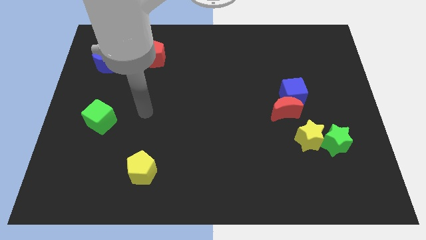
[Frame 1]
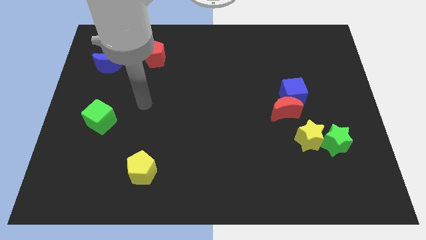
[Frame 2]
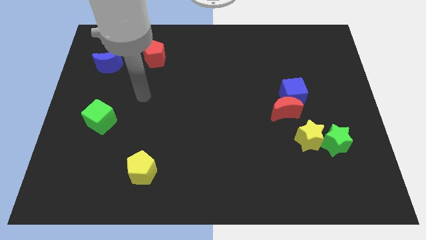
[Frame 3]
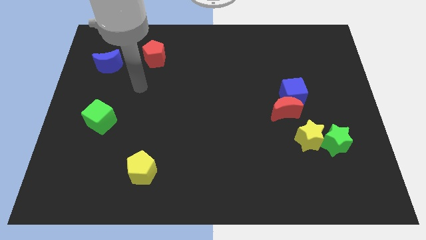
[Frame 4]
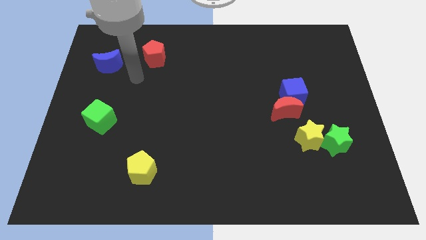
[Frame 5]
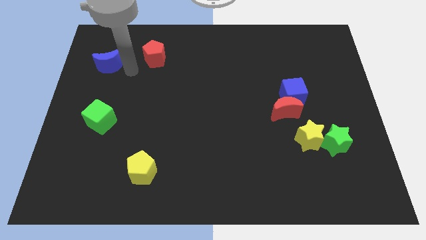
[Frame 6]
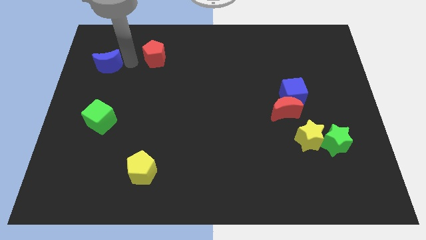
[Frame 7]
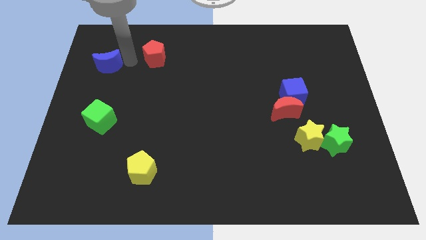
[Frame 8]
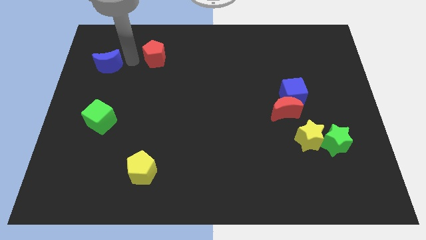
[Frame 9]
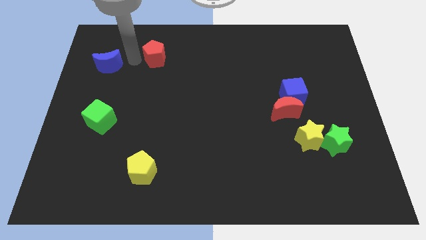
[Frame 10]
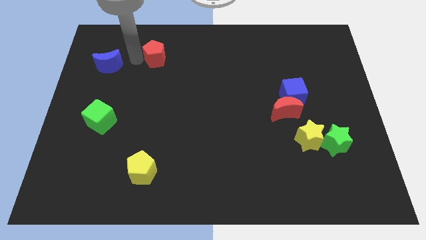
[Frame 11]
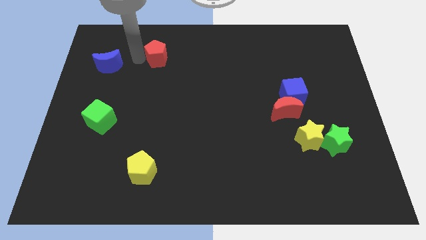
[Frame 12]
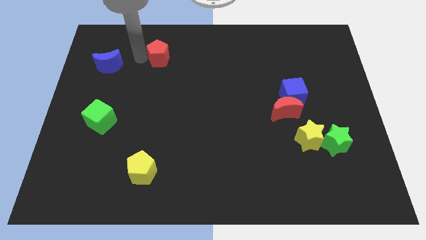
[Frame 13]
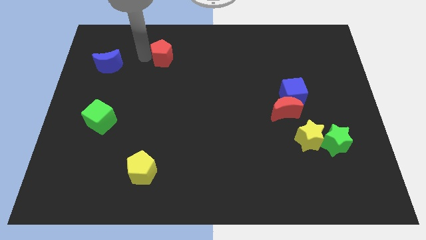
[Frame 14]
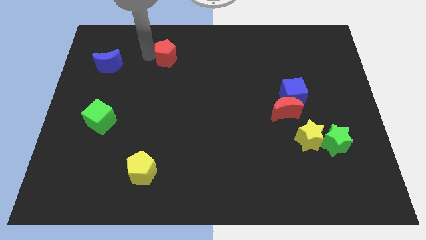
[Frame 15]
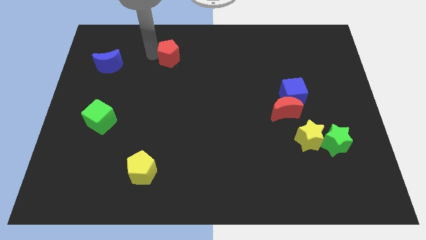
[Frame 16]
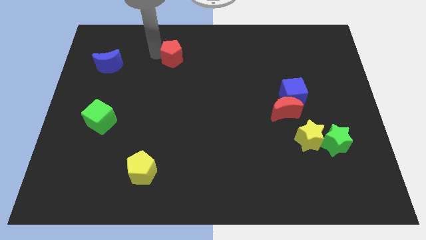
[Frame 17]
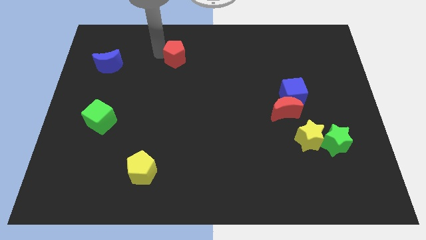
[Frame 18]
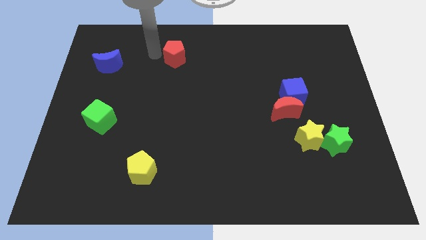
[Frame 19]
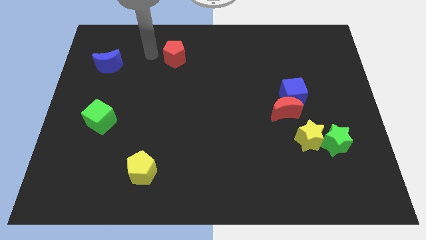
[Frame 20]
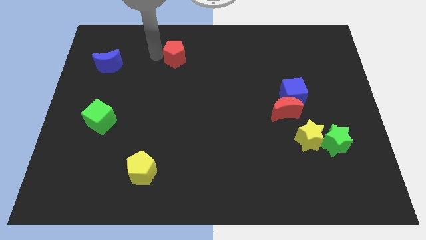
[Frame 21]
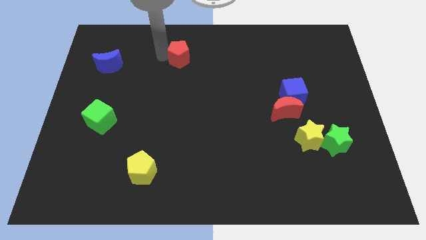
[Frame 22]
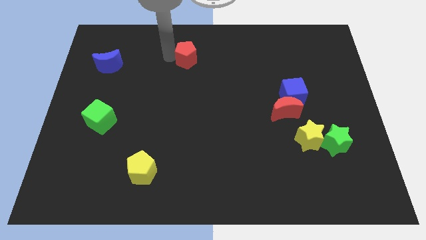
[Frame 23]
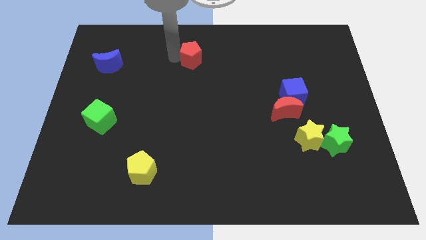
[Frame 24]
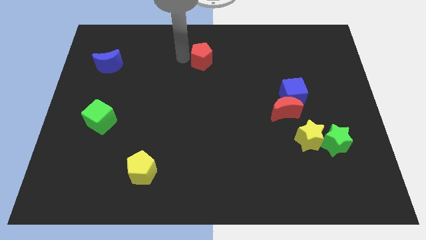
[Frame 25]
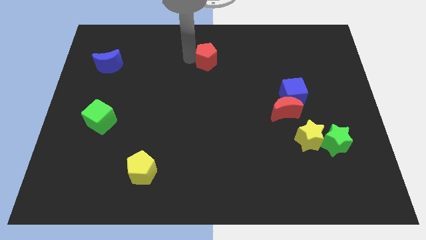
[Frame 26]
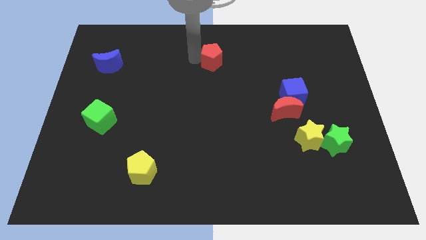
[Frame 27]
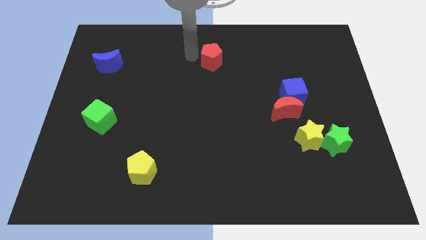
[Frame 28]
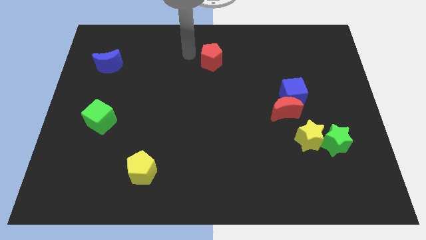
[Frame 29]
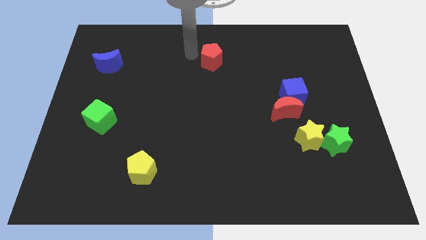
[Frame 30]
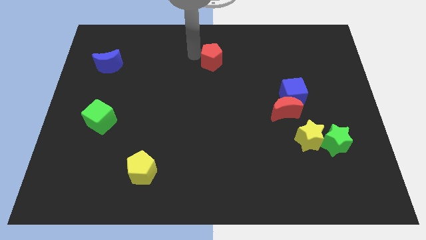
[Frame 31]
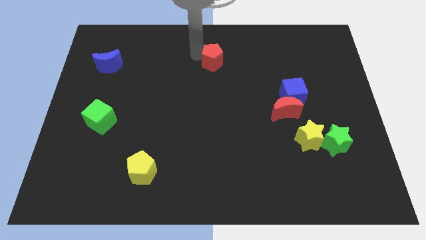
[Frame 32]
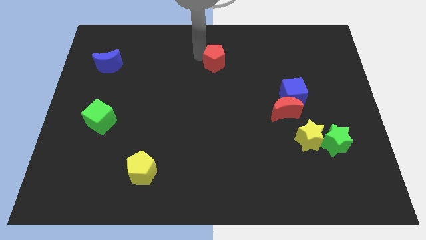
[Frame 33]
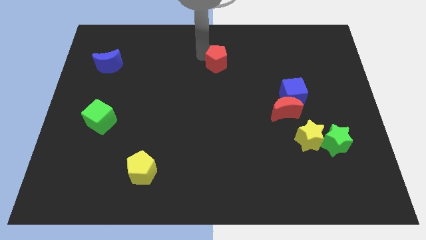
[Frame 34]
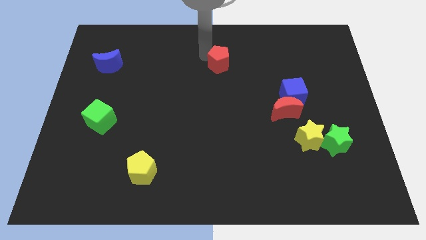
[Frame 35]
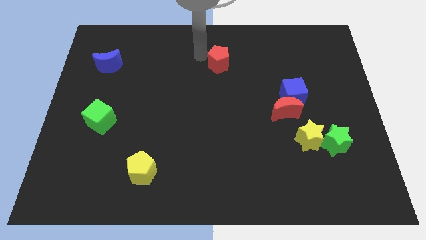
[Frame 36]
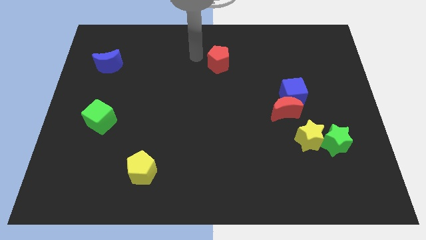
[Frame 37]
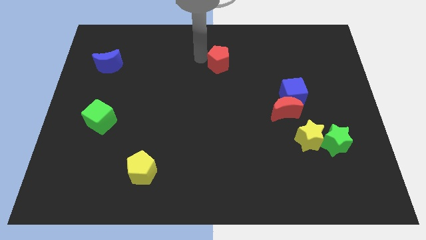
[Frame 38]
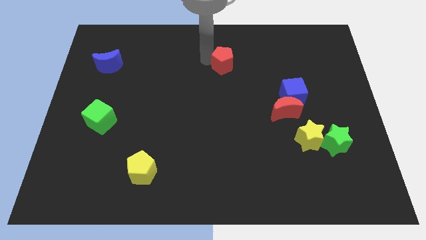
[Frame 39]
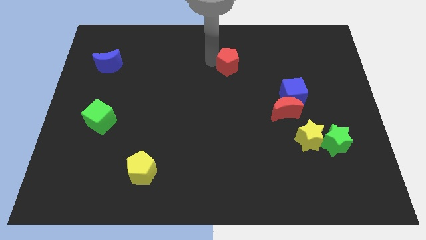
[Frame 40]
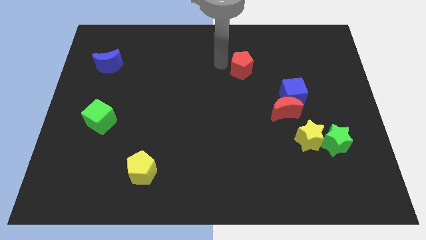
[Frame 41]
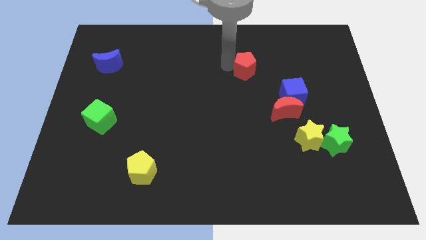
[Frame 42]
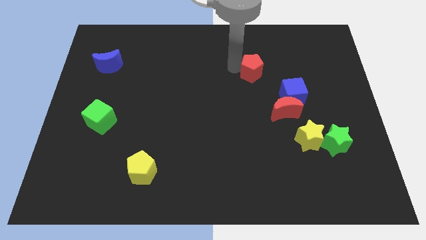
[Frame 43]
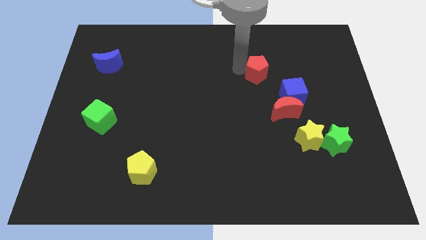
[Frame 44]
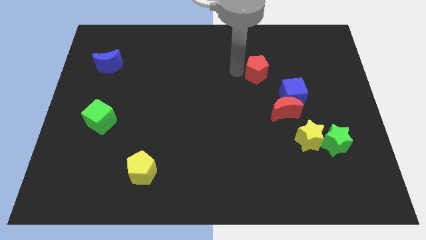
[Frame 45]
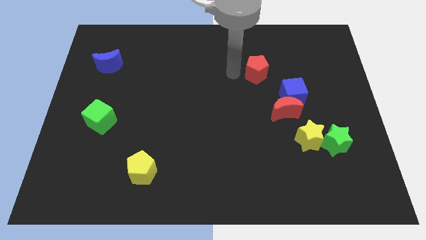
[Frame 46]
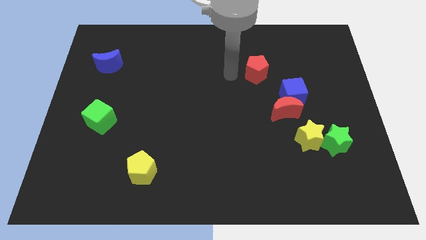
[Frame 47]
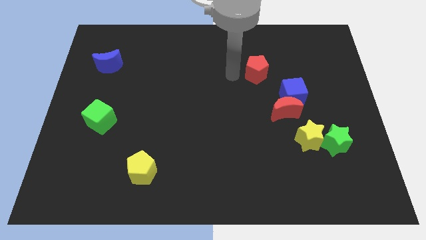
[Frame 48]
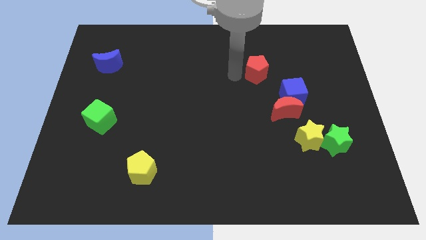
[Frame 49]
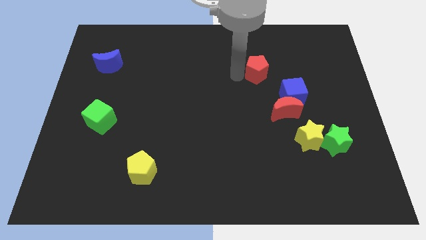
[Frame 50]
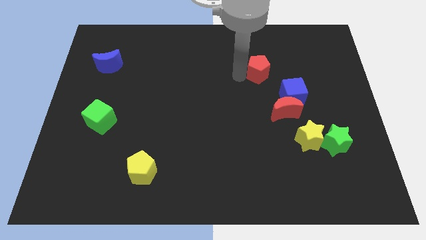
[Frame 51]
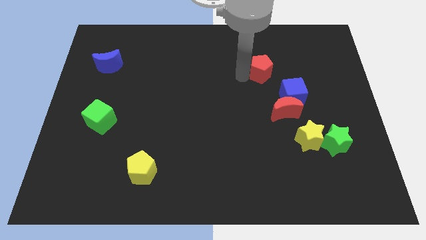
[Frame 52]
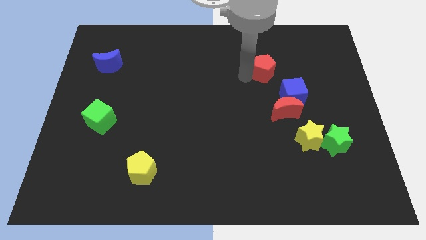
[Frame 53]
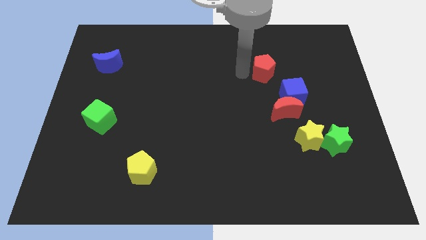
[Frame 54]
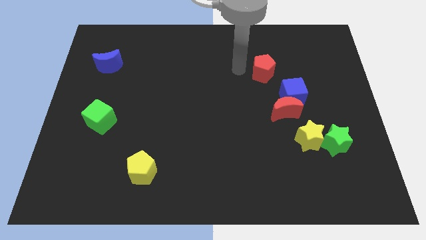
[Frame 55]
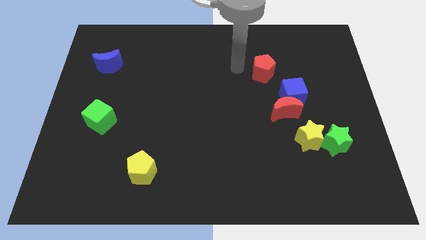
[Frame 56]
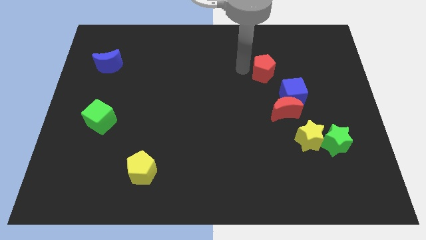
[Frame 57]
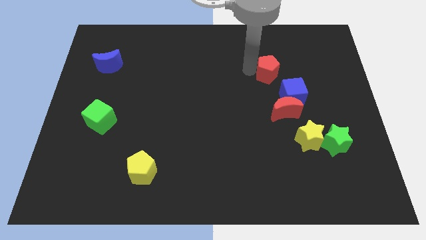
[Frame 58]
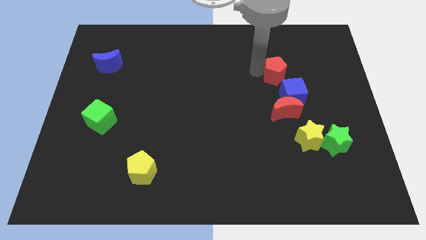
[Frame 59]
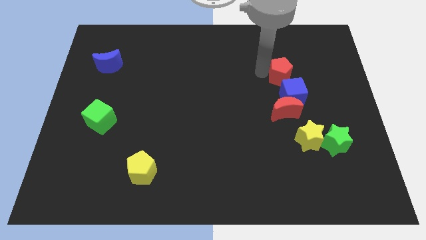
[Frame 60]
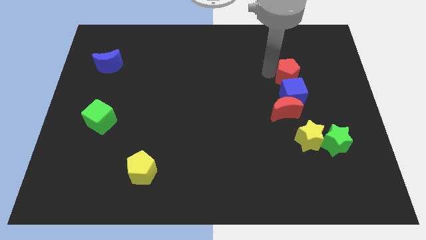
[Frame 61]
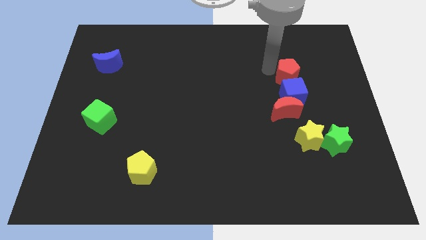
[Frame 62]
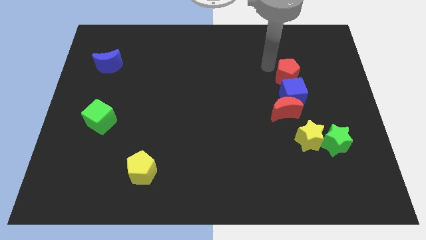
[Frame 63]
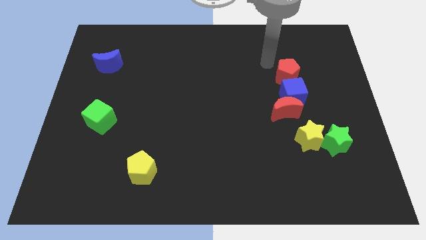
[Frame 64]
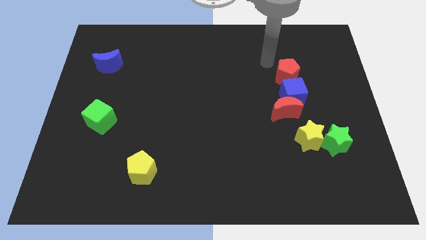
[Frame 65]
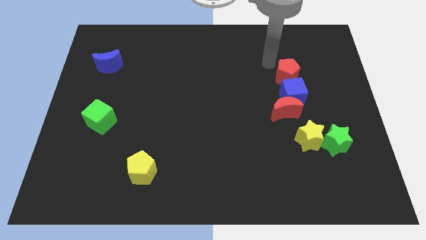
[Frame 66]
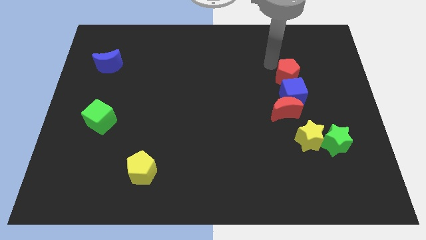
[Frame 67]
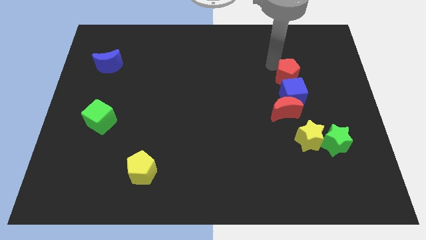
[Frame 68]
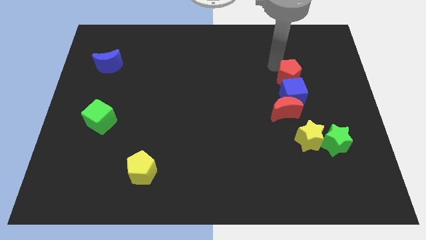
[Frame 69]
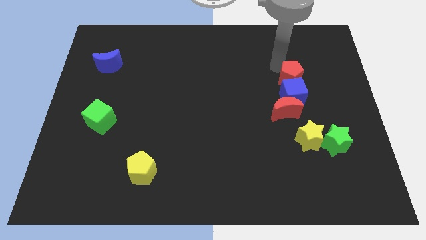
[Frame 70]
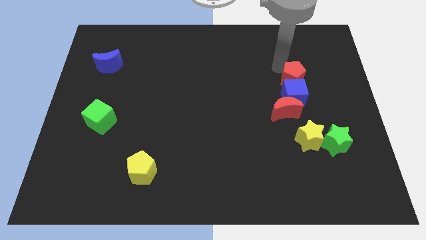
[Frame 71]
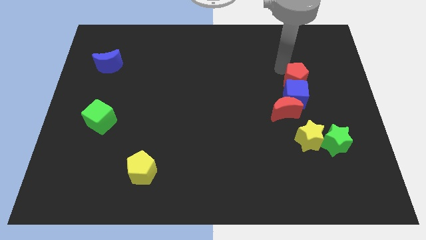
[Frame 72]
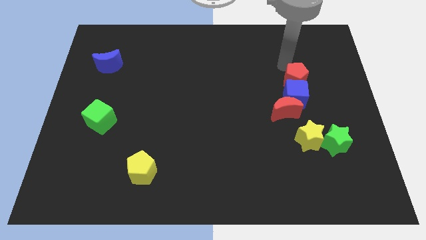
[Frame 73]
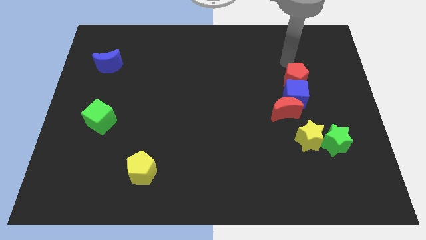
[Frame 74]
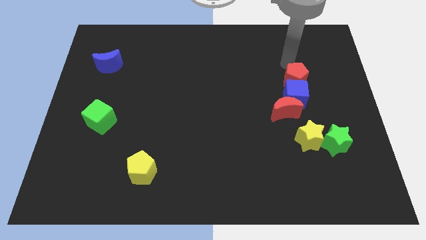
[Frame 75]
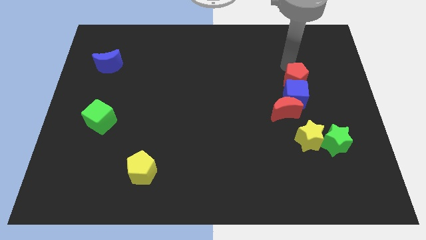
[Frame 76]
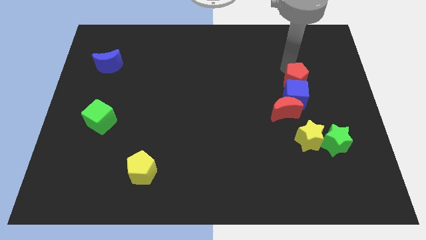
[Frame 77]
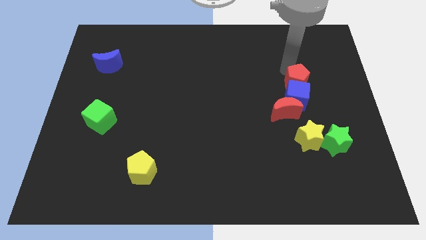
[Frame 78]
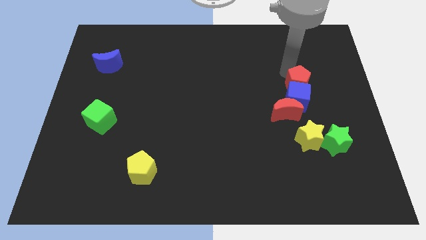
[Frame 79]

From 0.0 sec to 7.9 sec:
slide the red pentagon above the yellow star
